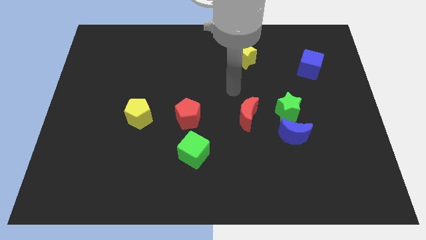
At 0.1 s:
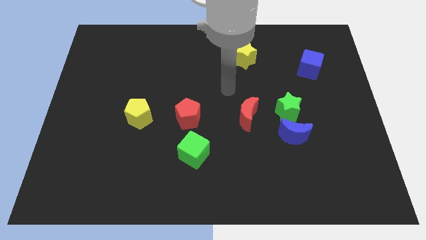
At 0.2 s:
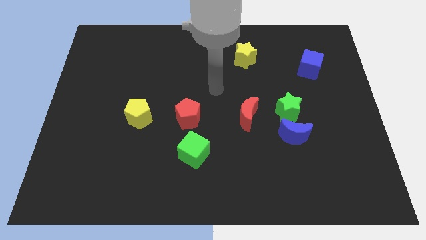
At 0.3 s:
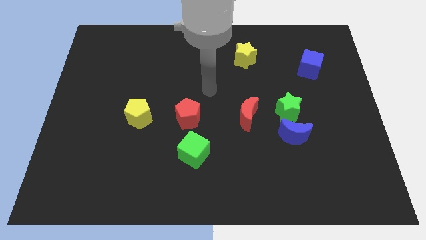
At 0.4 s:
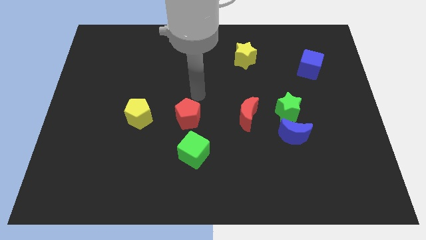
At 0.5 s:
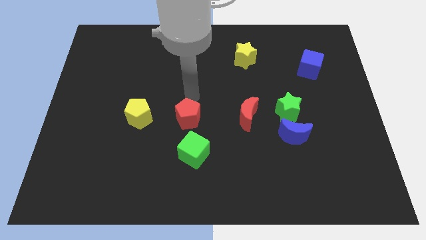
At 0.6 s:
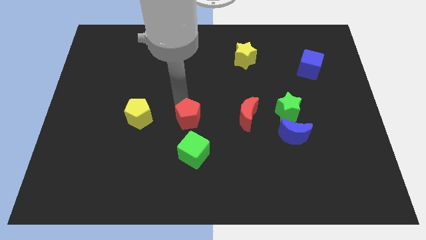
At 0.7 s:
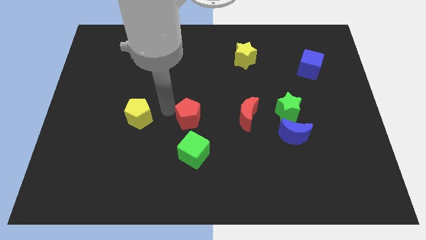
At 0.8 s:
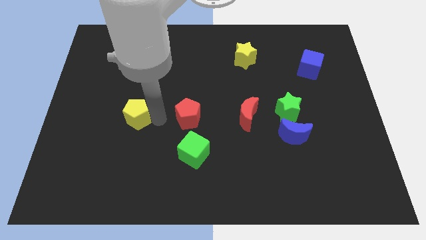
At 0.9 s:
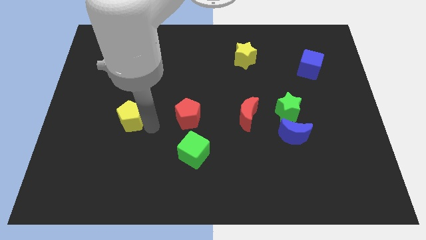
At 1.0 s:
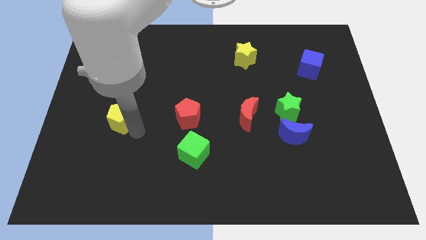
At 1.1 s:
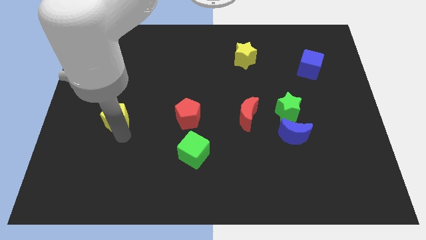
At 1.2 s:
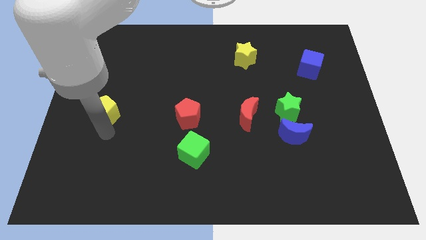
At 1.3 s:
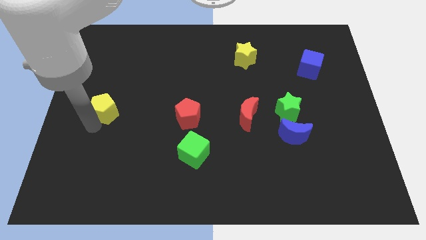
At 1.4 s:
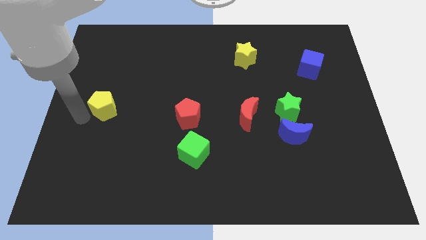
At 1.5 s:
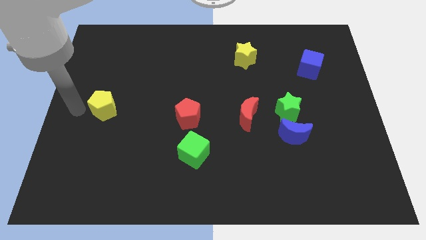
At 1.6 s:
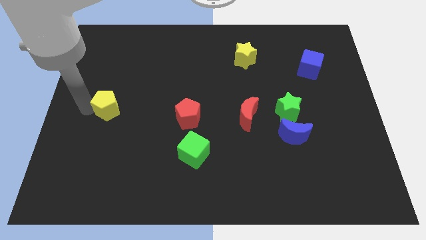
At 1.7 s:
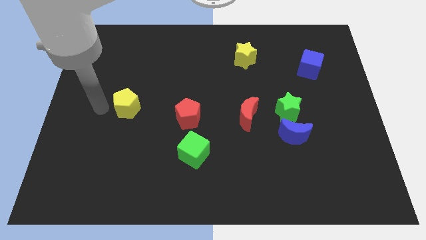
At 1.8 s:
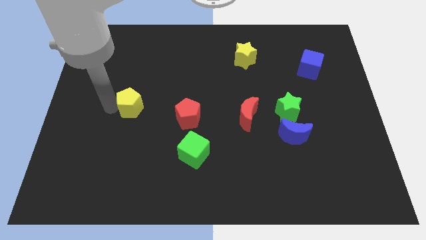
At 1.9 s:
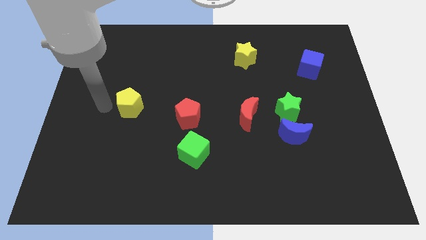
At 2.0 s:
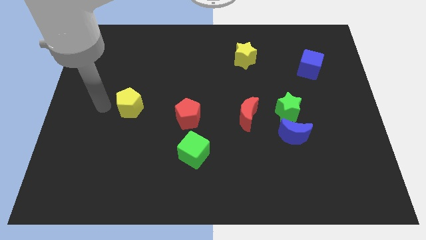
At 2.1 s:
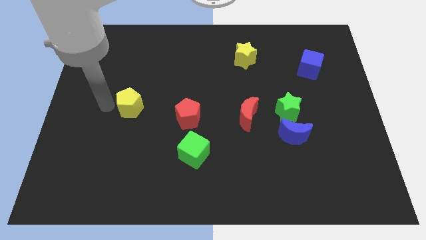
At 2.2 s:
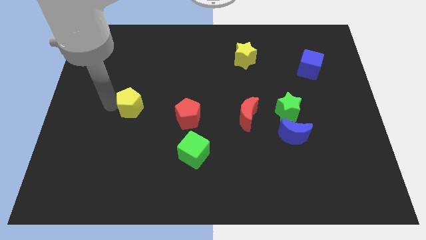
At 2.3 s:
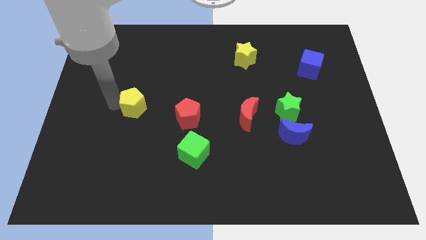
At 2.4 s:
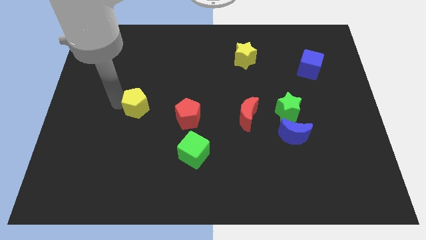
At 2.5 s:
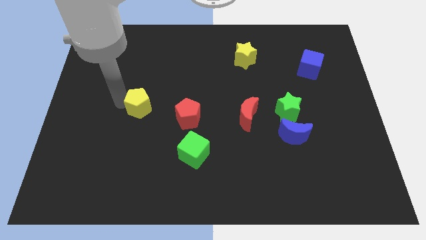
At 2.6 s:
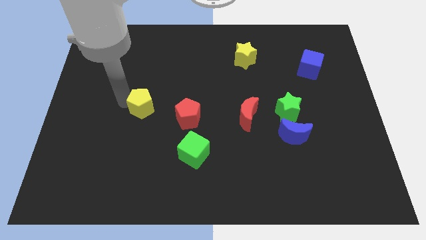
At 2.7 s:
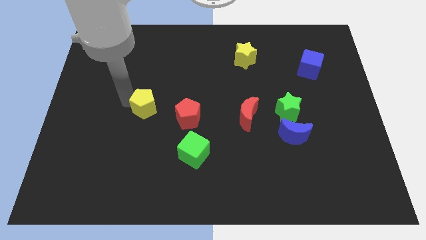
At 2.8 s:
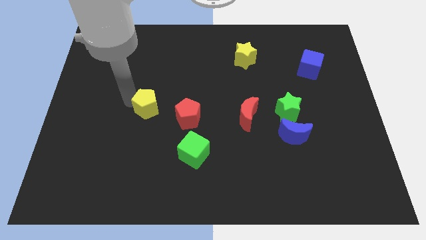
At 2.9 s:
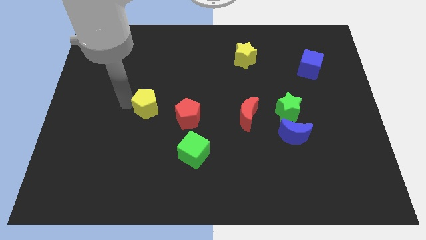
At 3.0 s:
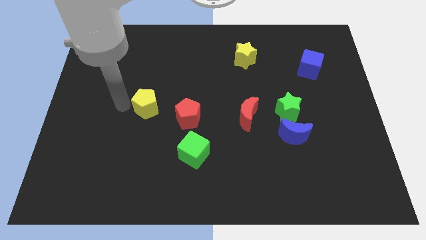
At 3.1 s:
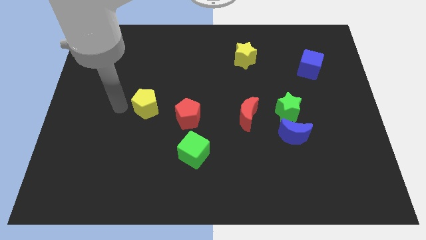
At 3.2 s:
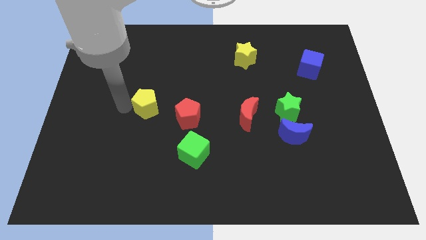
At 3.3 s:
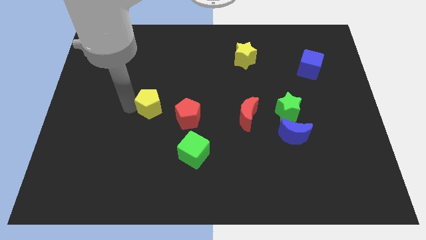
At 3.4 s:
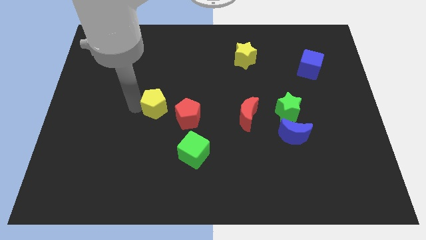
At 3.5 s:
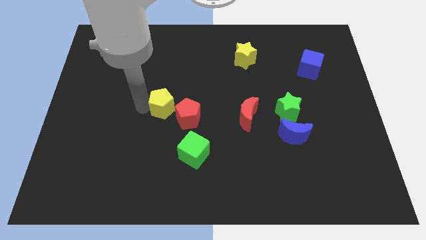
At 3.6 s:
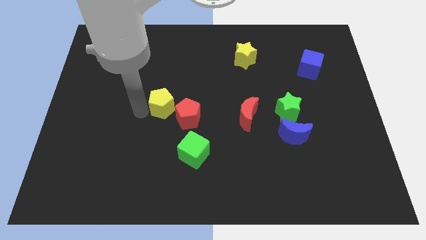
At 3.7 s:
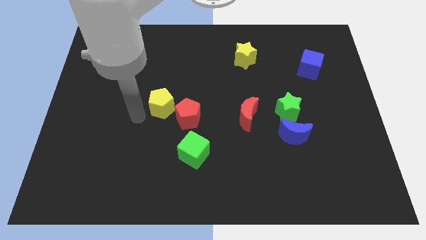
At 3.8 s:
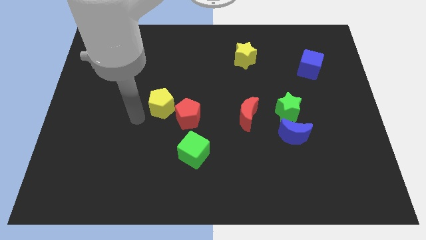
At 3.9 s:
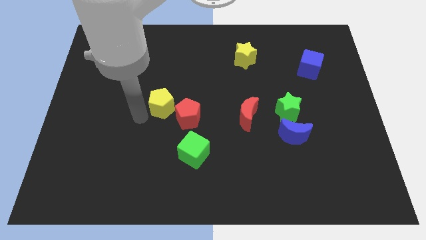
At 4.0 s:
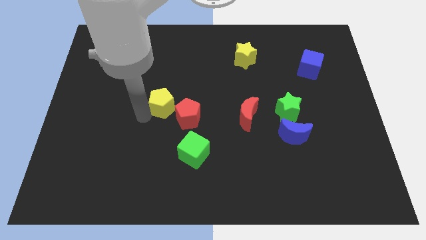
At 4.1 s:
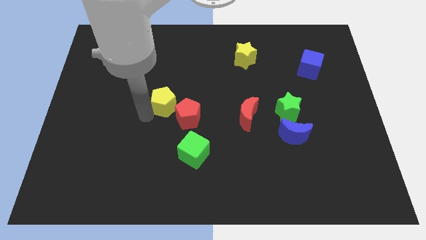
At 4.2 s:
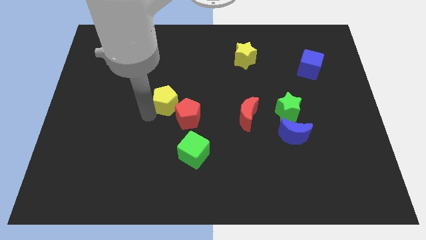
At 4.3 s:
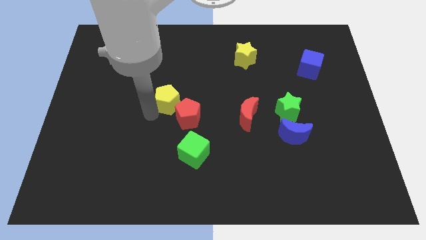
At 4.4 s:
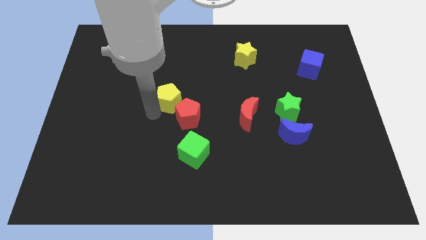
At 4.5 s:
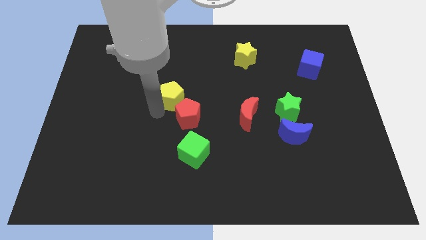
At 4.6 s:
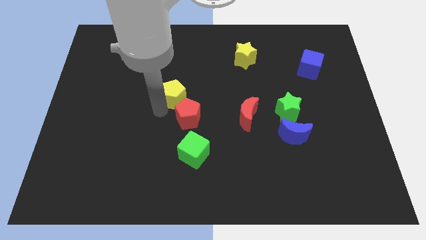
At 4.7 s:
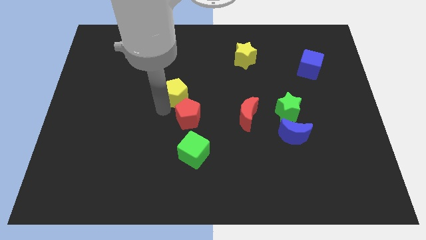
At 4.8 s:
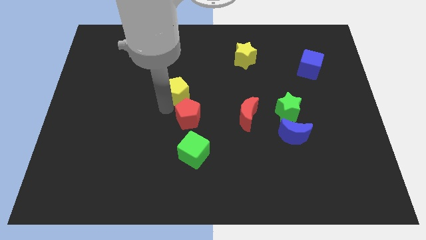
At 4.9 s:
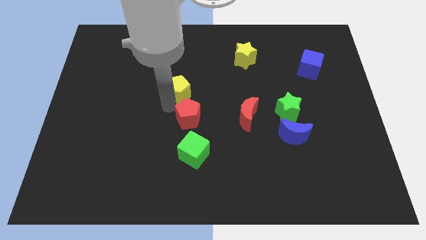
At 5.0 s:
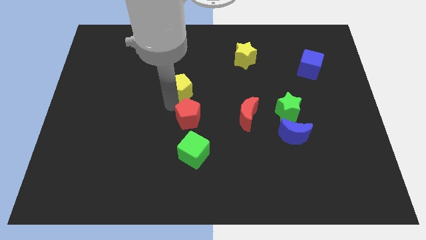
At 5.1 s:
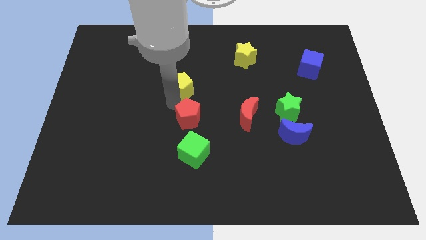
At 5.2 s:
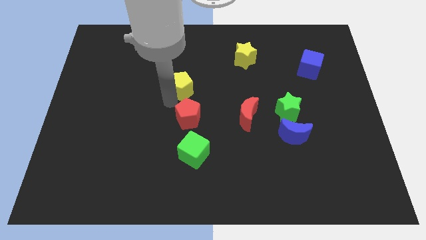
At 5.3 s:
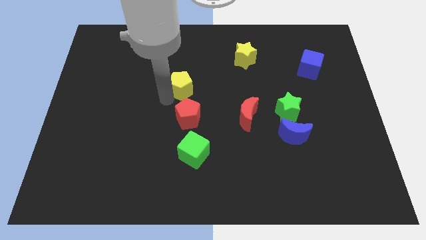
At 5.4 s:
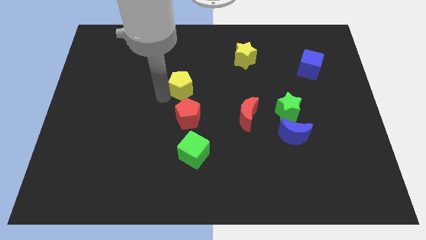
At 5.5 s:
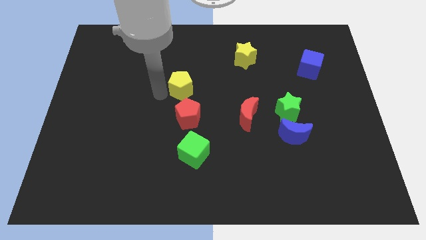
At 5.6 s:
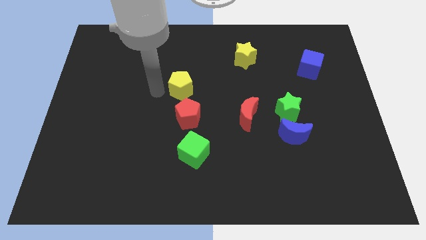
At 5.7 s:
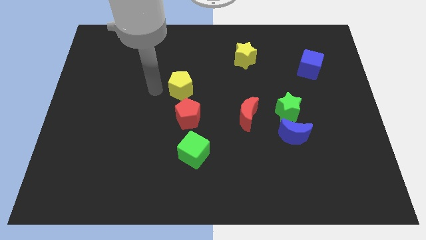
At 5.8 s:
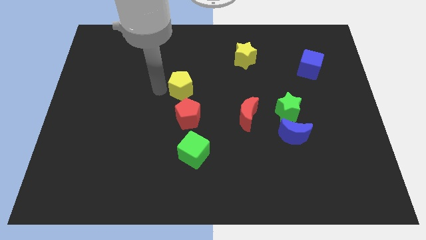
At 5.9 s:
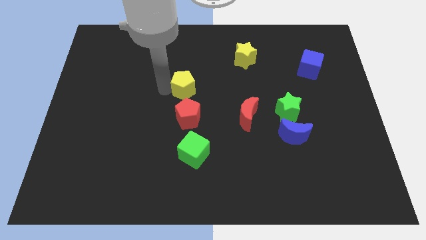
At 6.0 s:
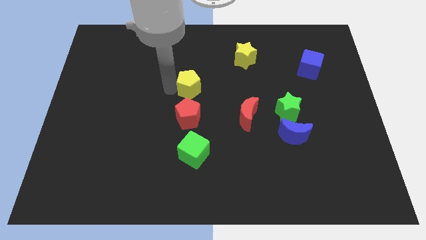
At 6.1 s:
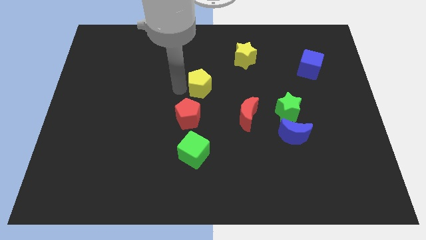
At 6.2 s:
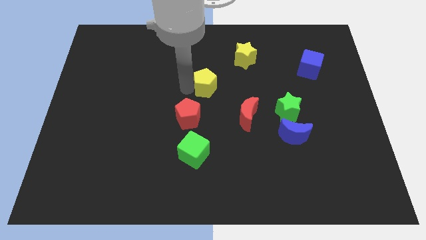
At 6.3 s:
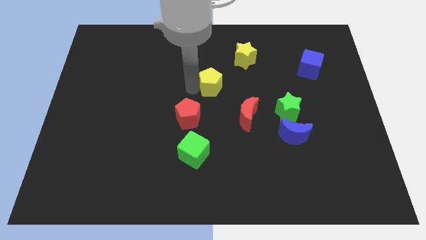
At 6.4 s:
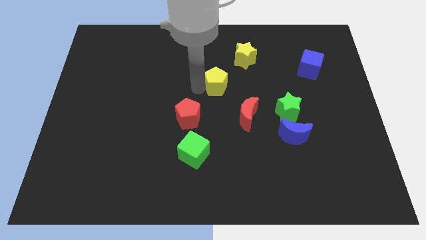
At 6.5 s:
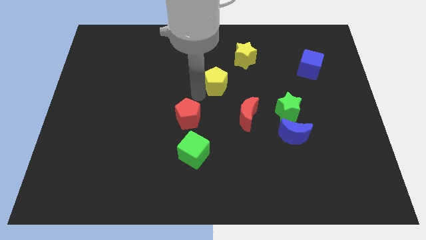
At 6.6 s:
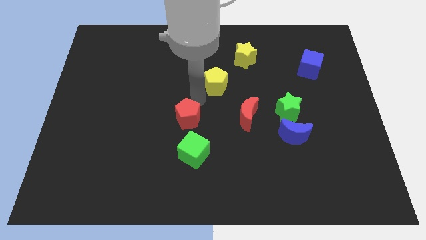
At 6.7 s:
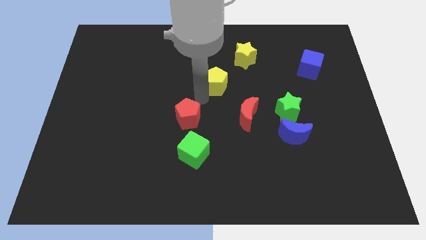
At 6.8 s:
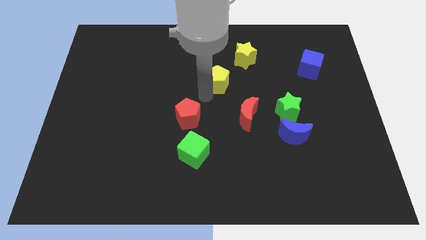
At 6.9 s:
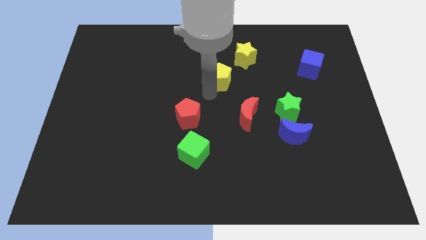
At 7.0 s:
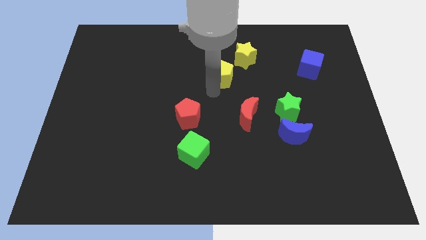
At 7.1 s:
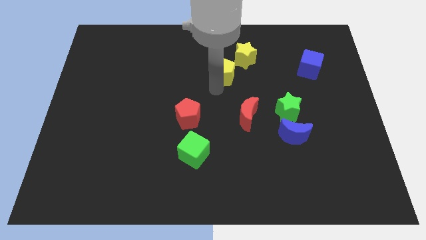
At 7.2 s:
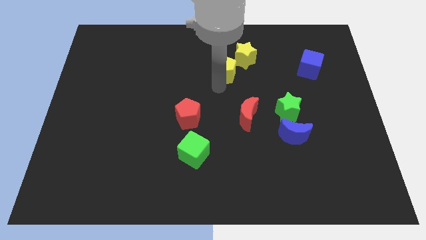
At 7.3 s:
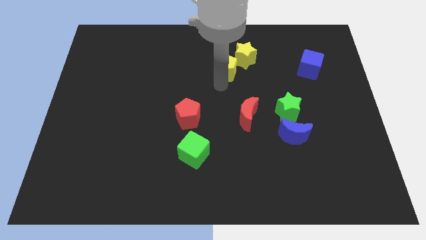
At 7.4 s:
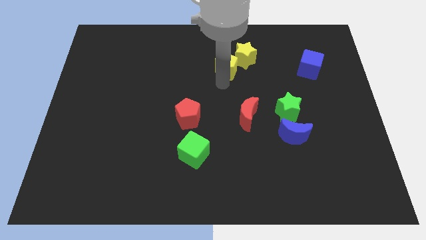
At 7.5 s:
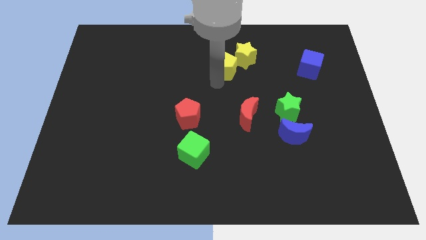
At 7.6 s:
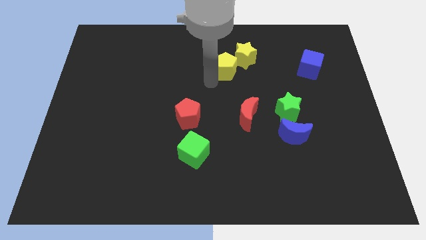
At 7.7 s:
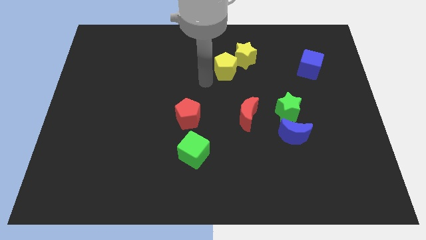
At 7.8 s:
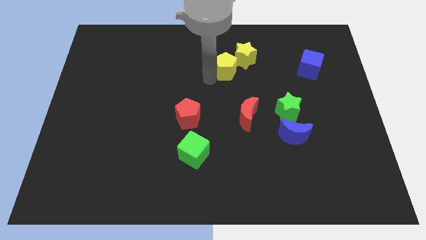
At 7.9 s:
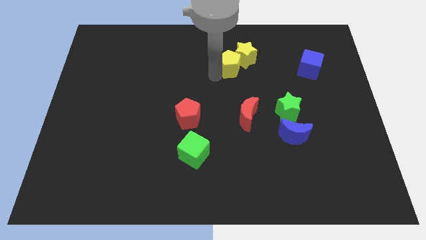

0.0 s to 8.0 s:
push the yellow pentagon close to the yellow star

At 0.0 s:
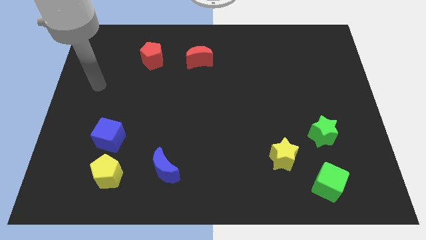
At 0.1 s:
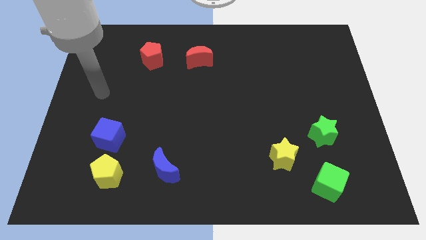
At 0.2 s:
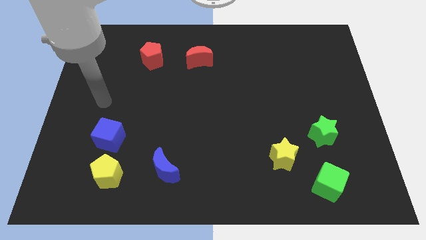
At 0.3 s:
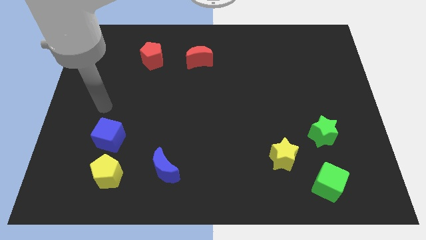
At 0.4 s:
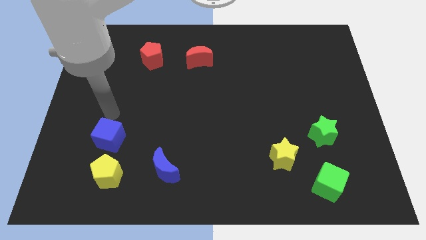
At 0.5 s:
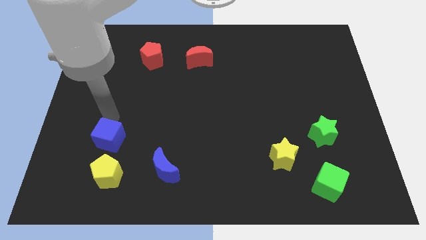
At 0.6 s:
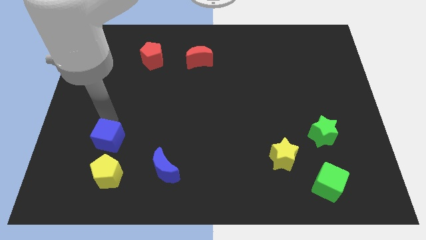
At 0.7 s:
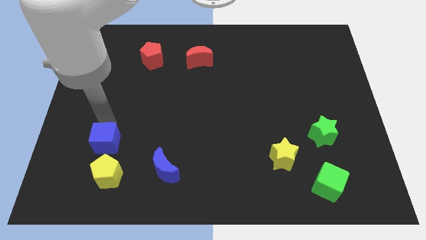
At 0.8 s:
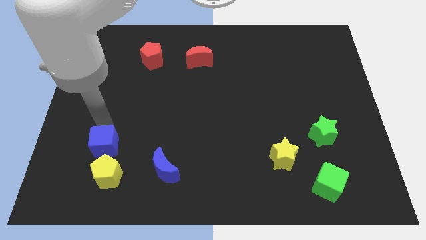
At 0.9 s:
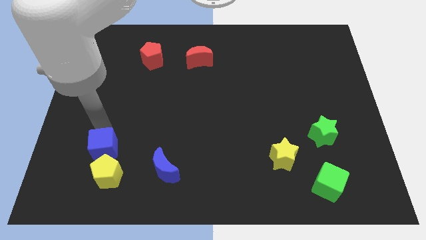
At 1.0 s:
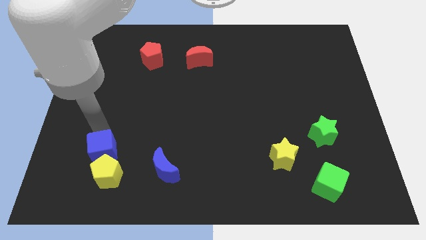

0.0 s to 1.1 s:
move the blue cube next to the yellow pentagon
